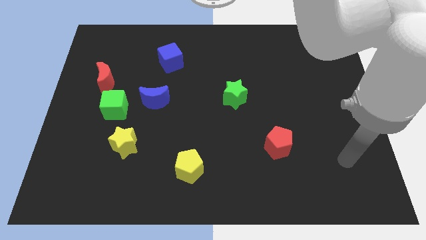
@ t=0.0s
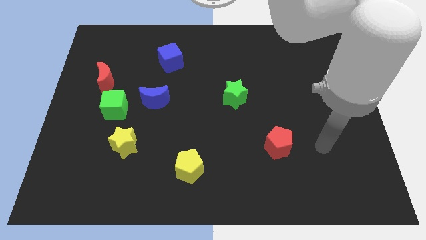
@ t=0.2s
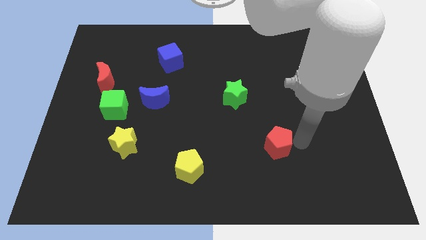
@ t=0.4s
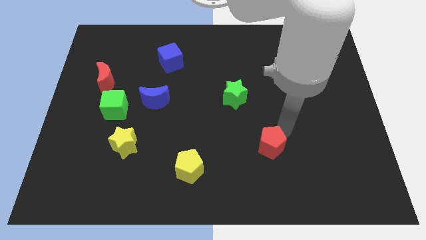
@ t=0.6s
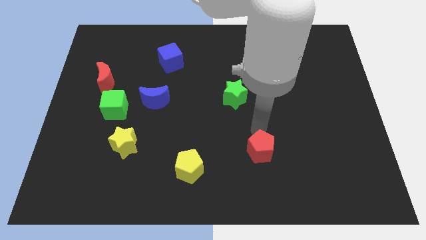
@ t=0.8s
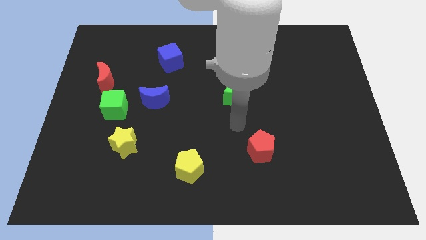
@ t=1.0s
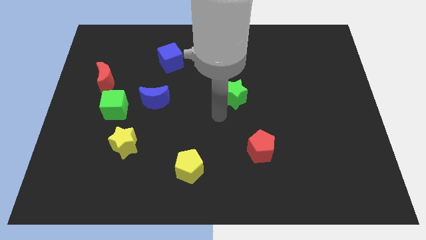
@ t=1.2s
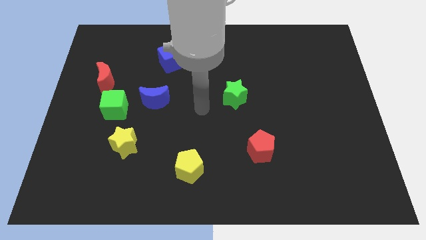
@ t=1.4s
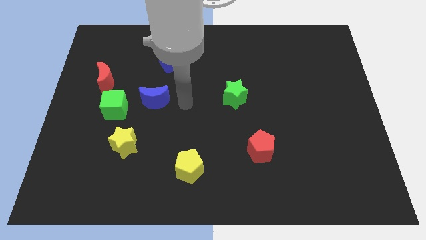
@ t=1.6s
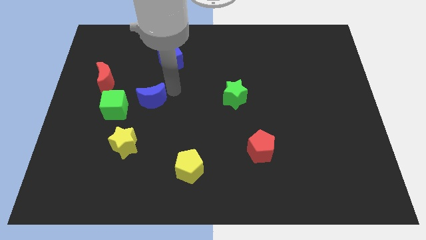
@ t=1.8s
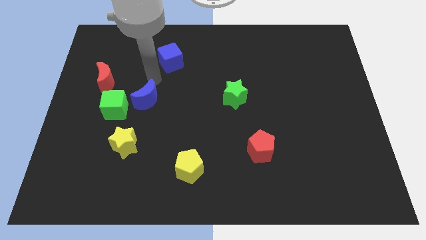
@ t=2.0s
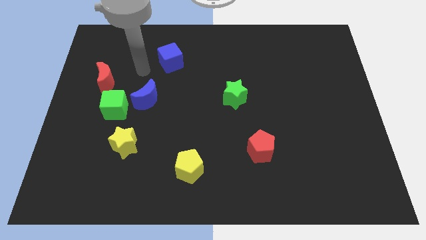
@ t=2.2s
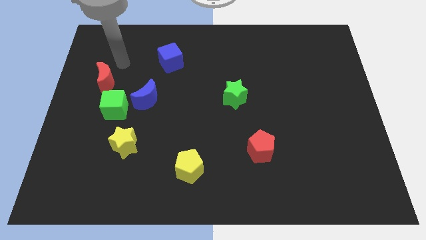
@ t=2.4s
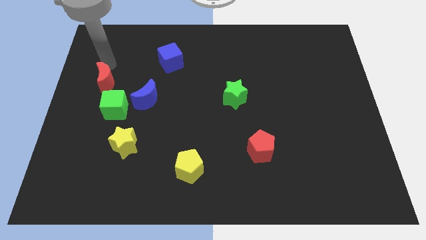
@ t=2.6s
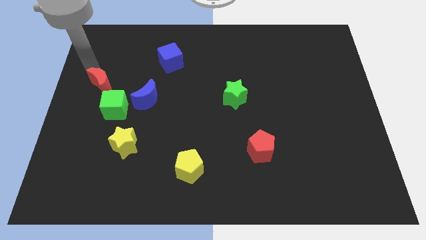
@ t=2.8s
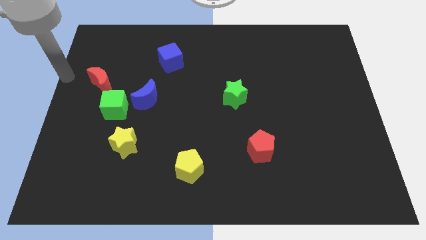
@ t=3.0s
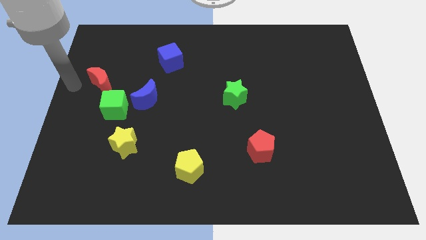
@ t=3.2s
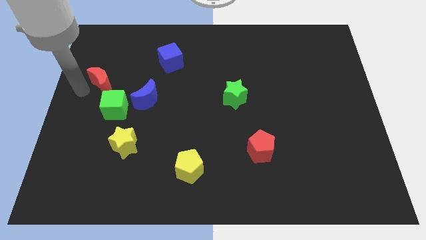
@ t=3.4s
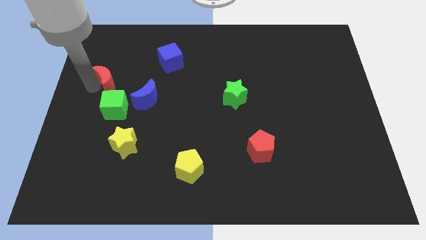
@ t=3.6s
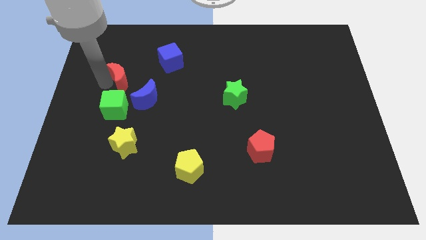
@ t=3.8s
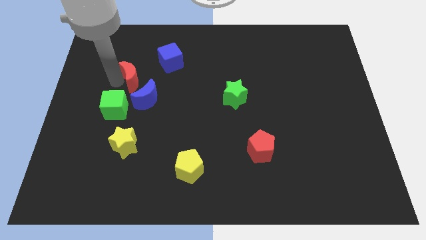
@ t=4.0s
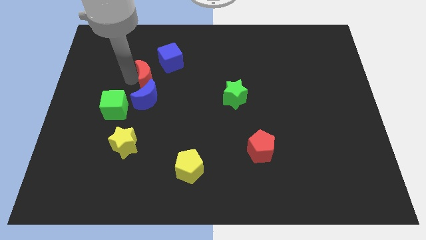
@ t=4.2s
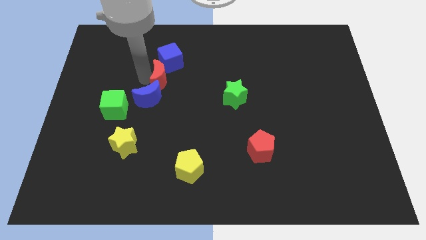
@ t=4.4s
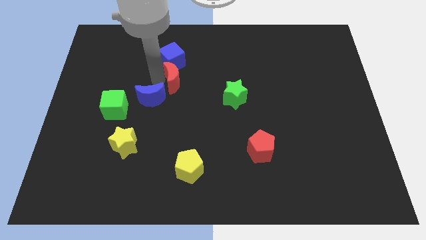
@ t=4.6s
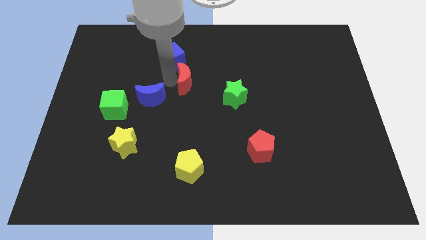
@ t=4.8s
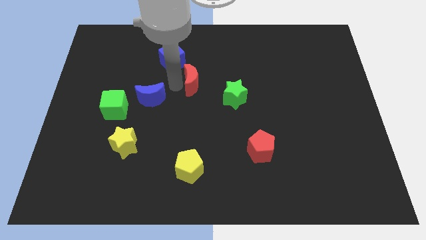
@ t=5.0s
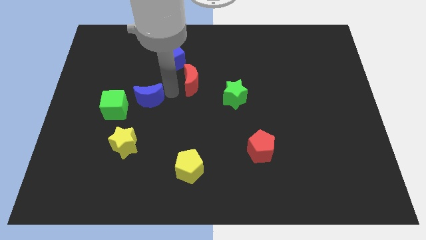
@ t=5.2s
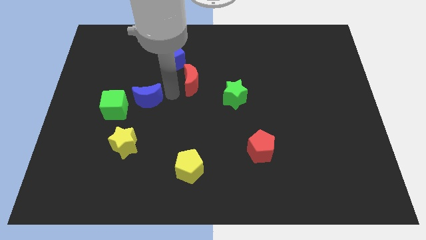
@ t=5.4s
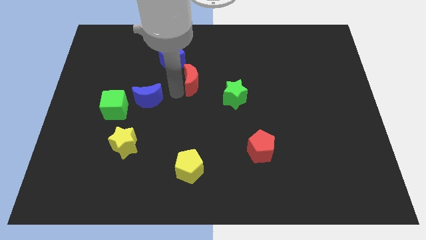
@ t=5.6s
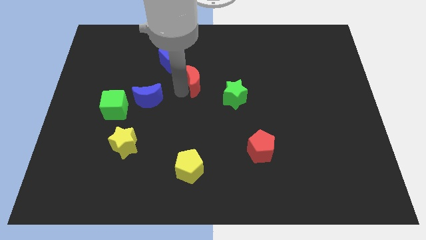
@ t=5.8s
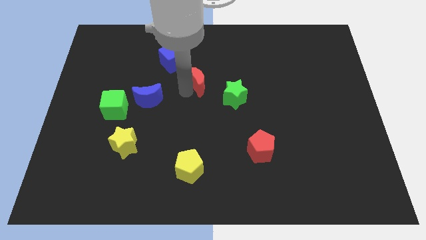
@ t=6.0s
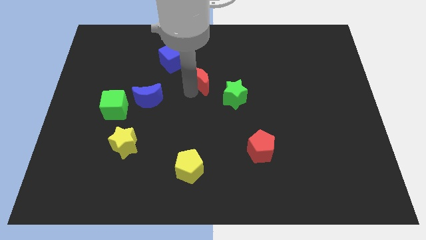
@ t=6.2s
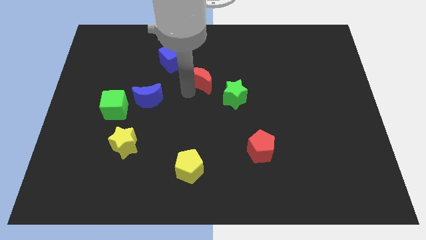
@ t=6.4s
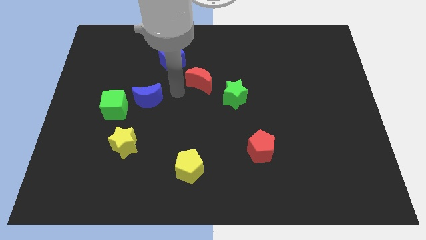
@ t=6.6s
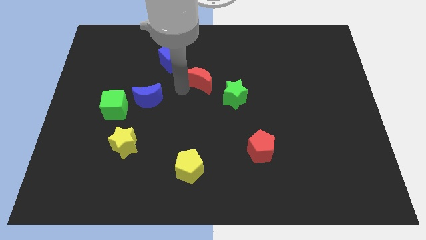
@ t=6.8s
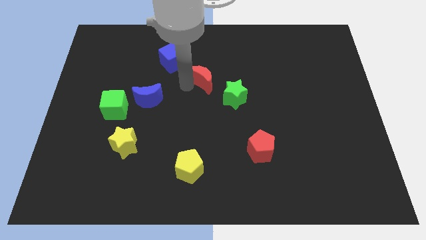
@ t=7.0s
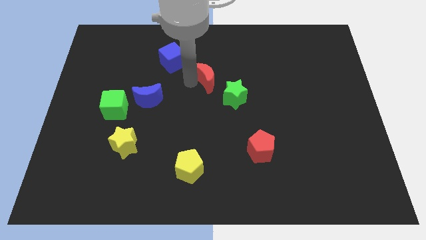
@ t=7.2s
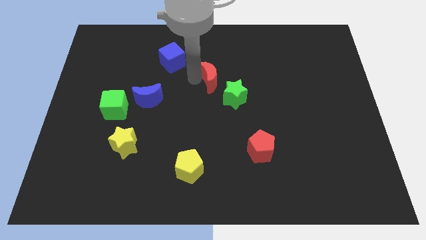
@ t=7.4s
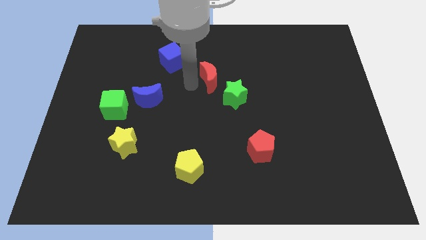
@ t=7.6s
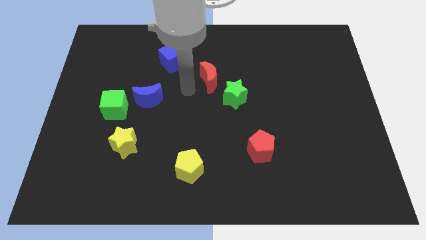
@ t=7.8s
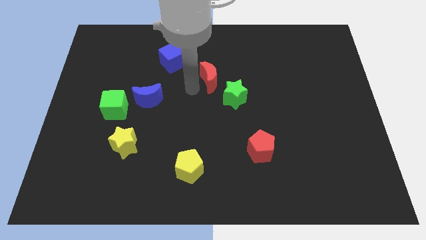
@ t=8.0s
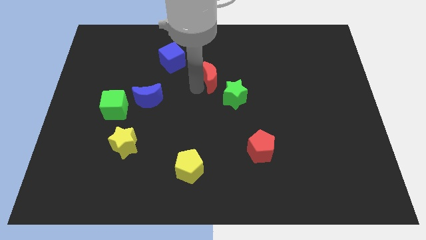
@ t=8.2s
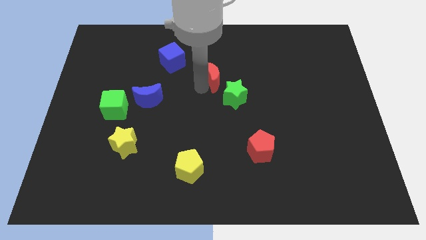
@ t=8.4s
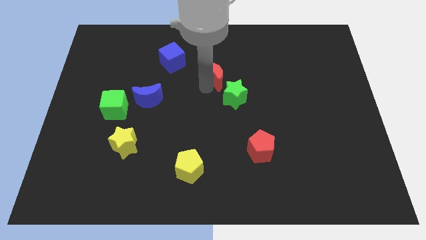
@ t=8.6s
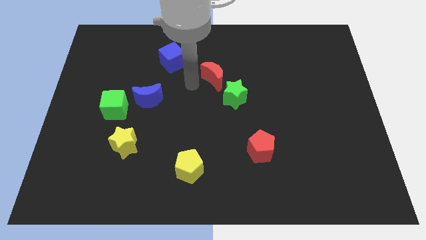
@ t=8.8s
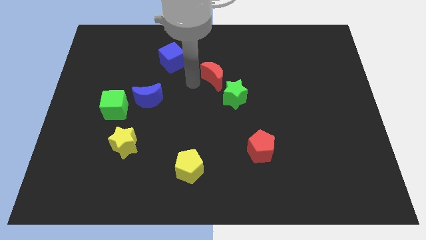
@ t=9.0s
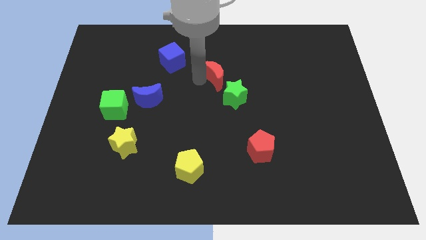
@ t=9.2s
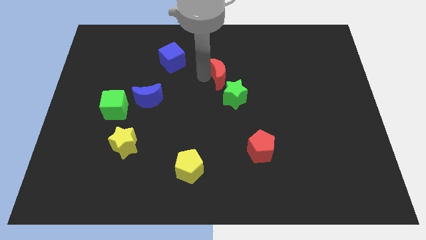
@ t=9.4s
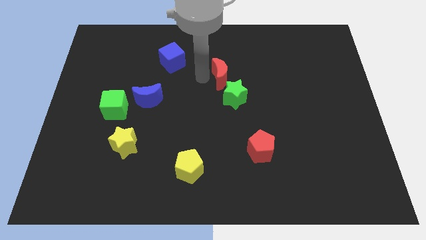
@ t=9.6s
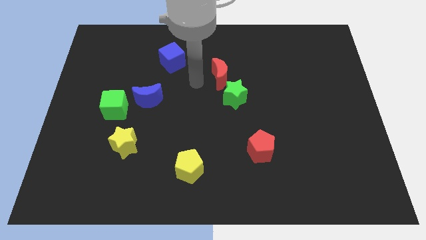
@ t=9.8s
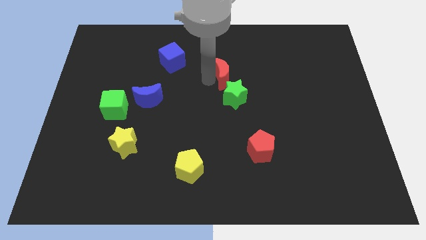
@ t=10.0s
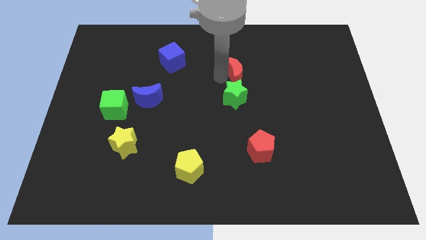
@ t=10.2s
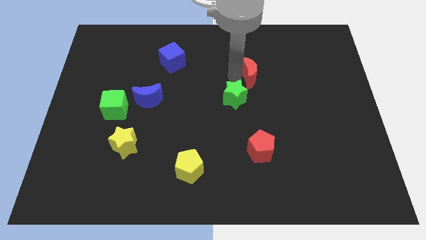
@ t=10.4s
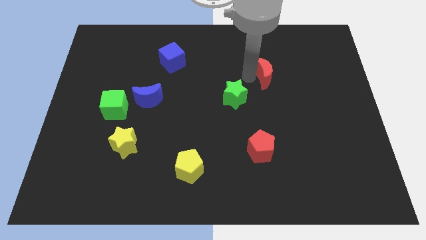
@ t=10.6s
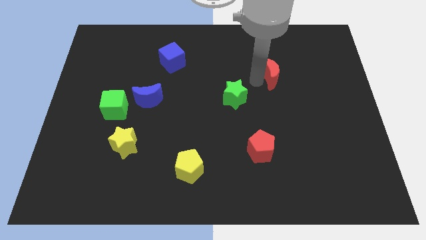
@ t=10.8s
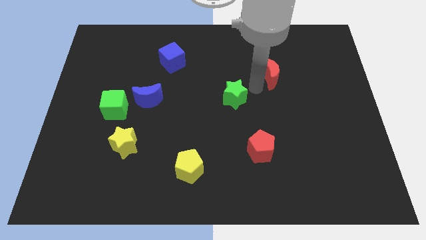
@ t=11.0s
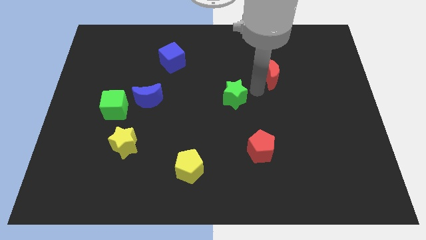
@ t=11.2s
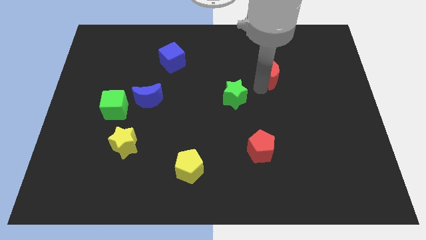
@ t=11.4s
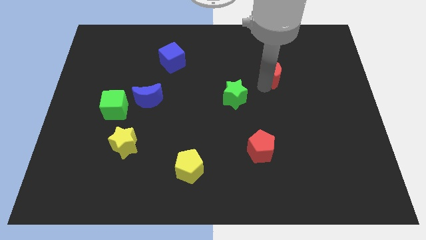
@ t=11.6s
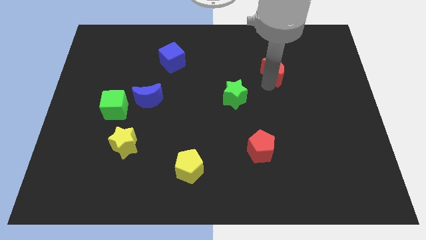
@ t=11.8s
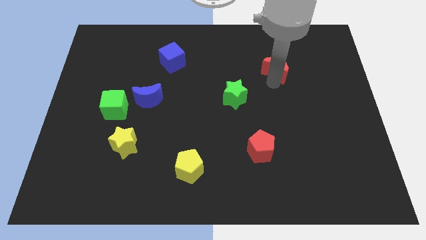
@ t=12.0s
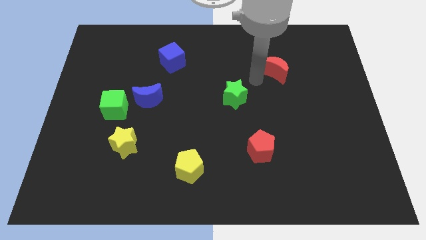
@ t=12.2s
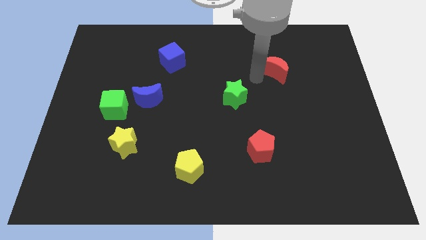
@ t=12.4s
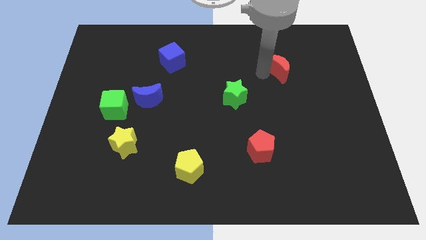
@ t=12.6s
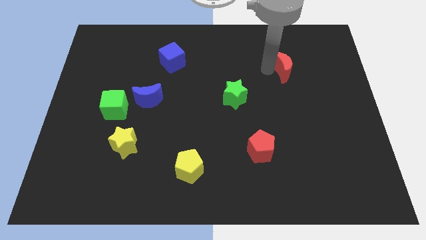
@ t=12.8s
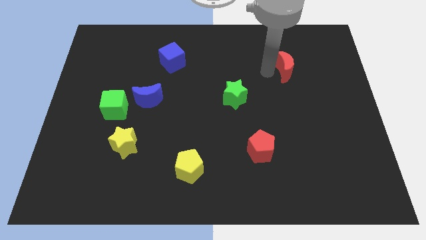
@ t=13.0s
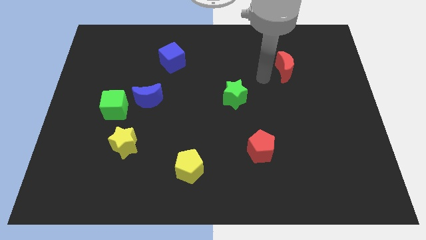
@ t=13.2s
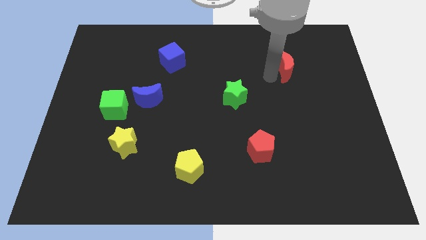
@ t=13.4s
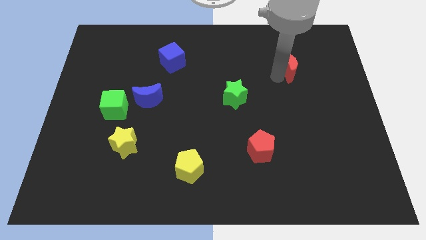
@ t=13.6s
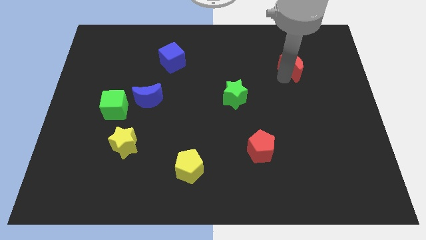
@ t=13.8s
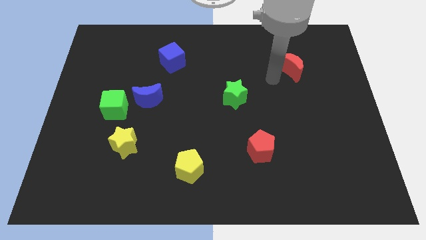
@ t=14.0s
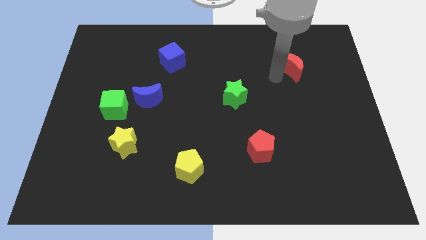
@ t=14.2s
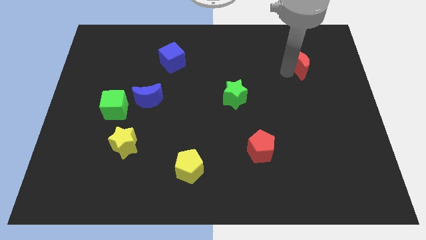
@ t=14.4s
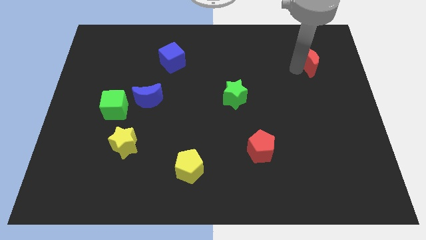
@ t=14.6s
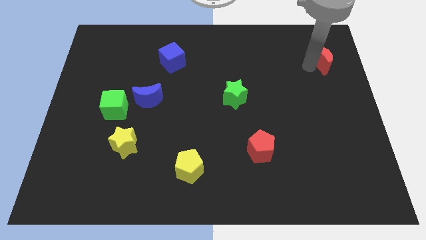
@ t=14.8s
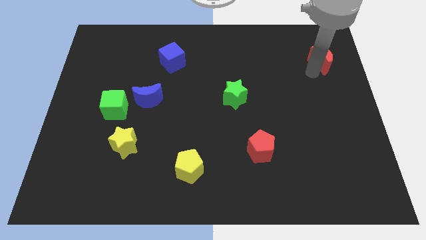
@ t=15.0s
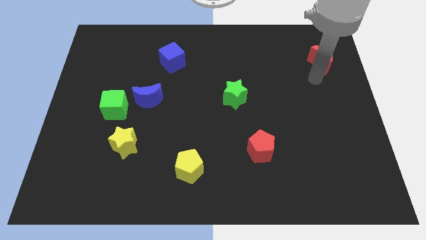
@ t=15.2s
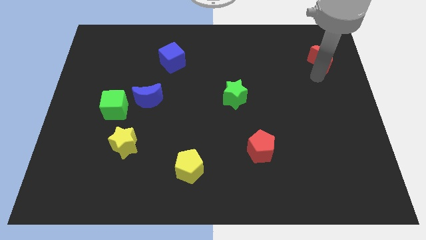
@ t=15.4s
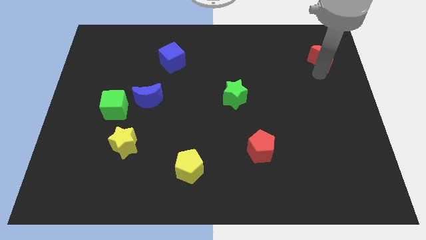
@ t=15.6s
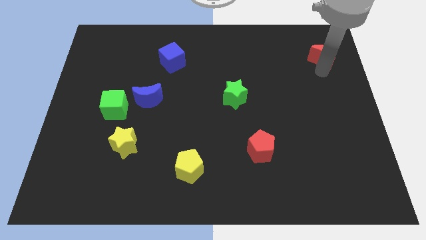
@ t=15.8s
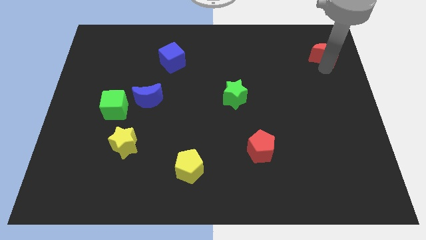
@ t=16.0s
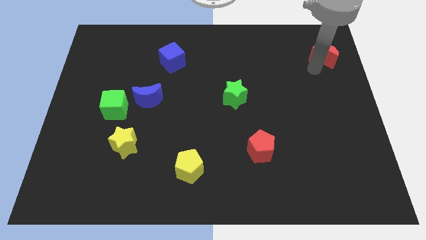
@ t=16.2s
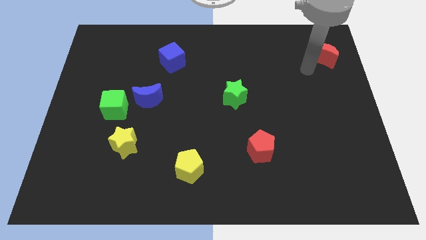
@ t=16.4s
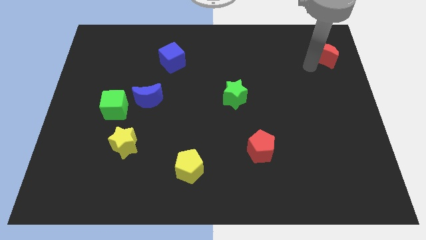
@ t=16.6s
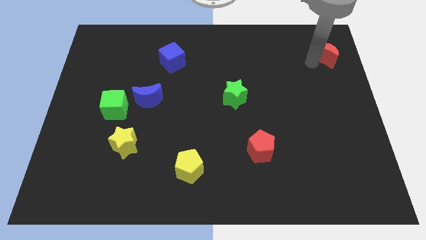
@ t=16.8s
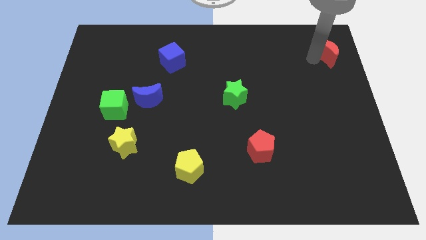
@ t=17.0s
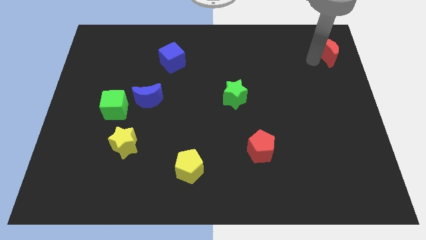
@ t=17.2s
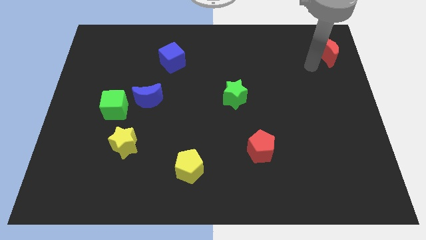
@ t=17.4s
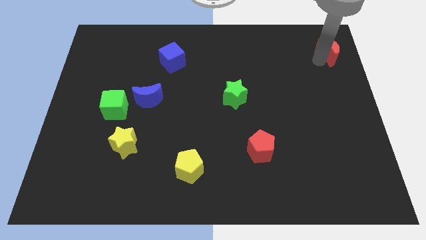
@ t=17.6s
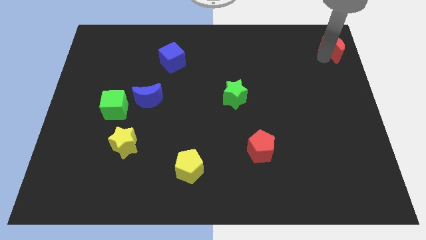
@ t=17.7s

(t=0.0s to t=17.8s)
push the red moon to the upper right corner
